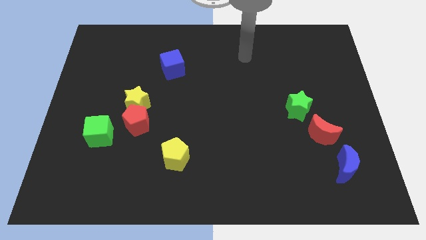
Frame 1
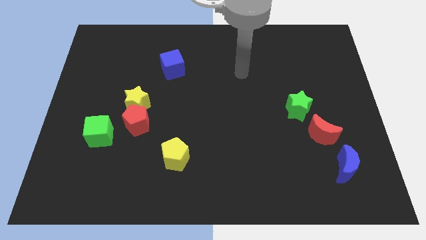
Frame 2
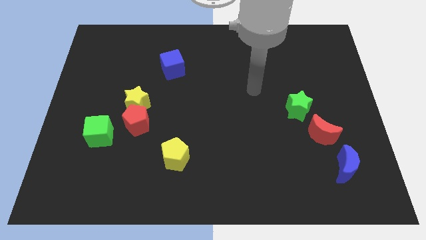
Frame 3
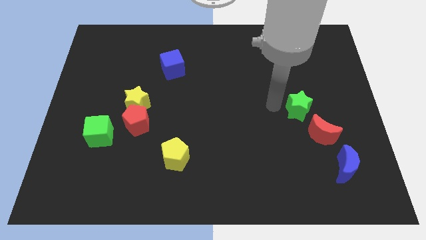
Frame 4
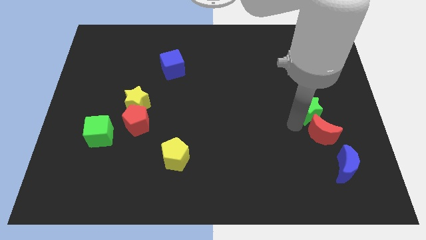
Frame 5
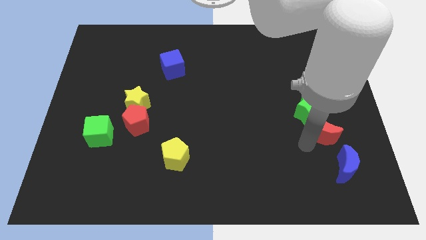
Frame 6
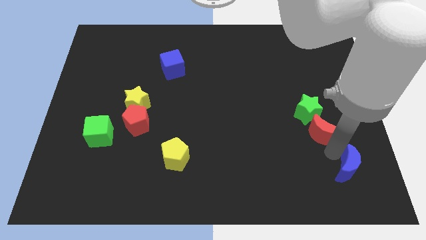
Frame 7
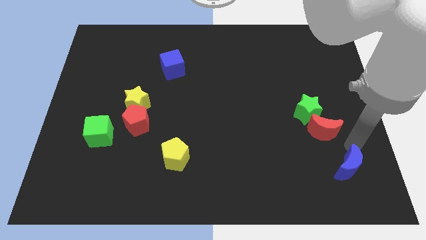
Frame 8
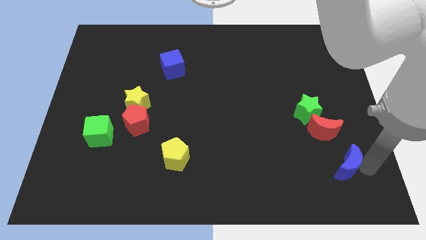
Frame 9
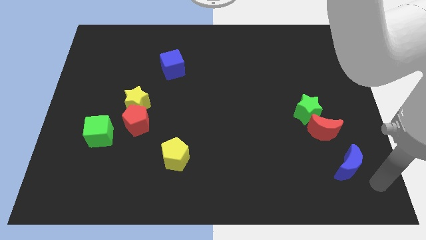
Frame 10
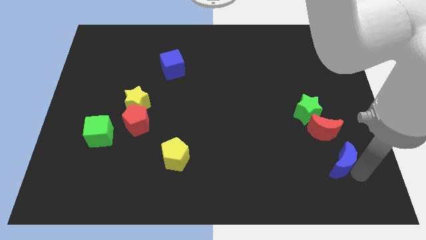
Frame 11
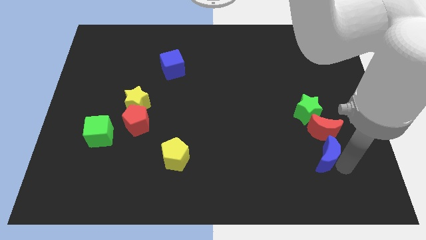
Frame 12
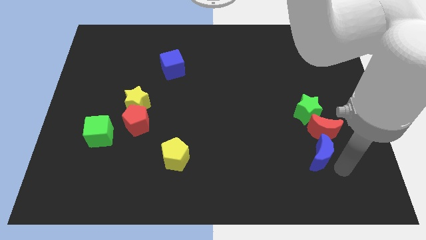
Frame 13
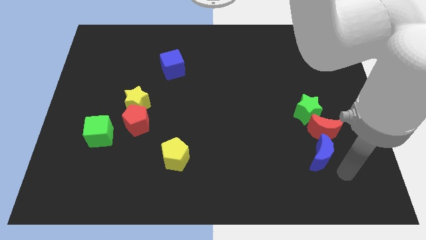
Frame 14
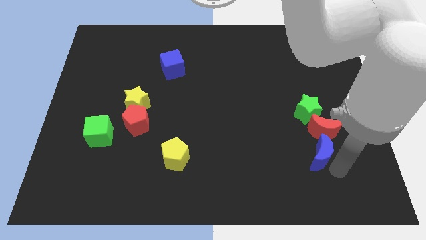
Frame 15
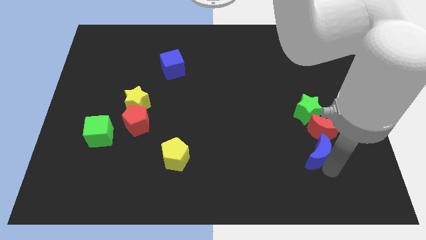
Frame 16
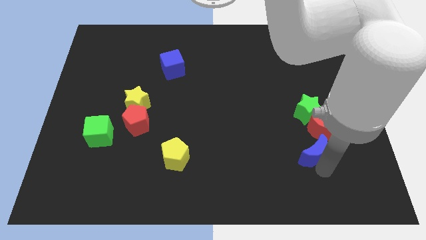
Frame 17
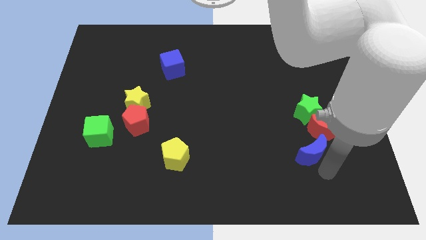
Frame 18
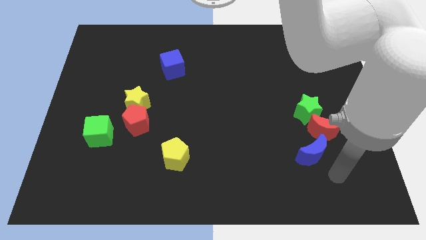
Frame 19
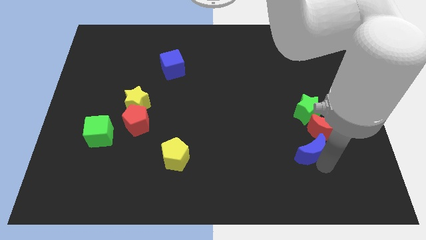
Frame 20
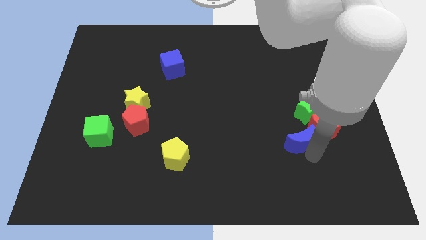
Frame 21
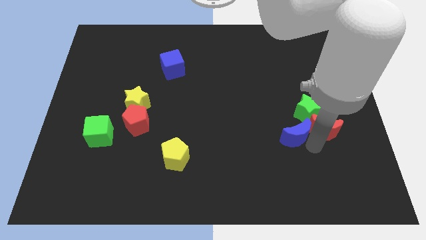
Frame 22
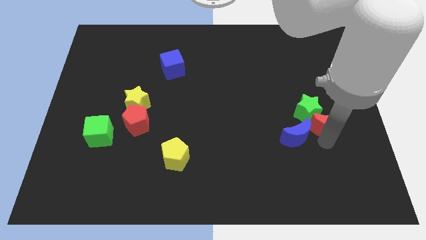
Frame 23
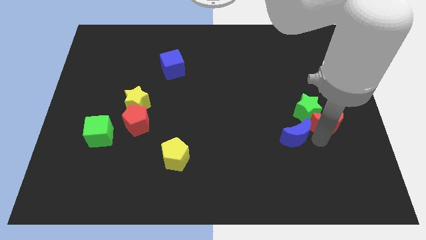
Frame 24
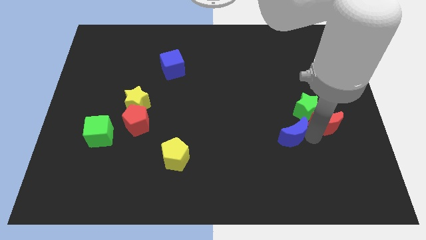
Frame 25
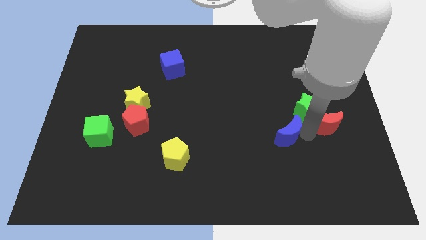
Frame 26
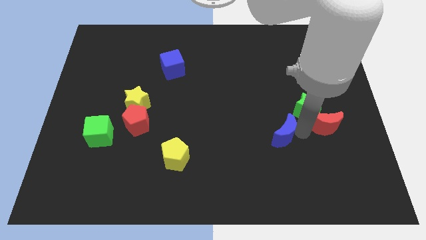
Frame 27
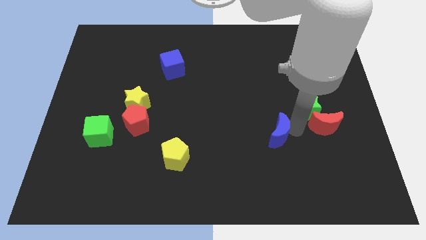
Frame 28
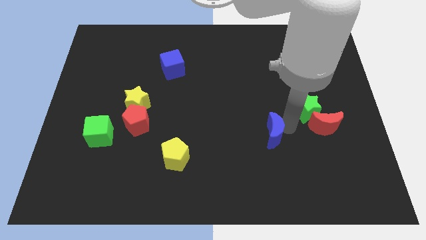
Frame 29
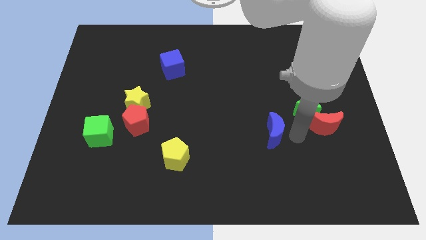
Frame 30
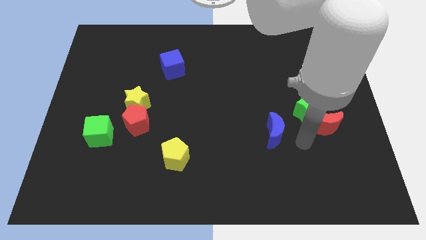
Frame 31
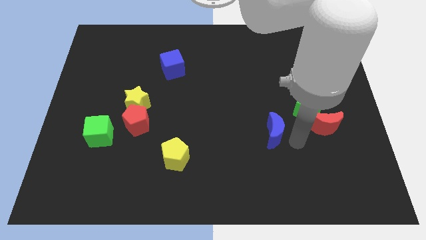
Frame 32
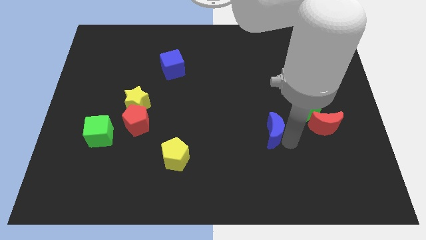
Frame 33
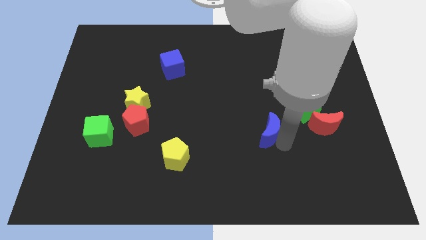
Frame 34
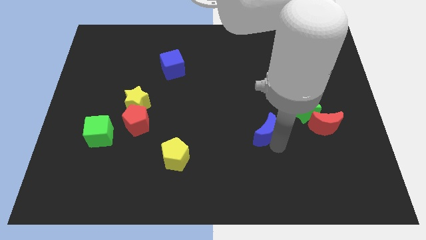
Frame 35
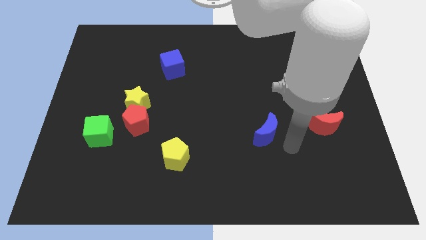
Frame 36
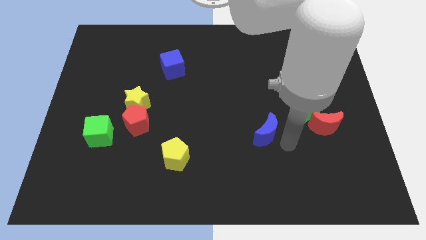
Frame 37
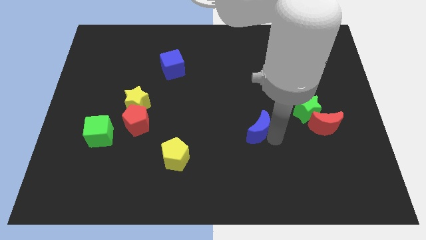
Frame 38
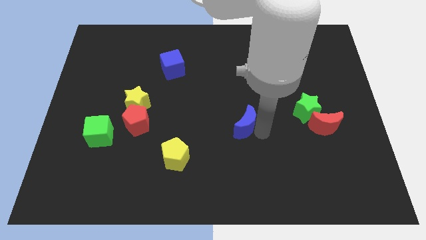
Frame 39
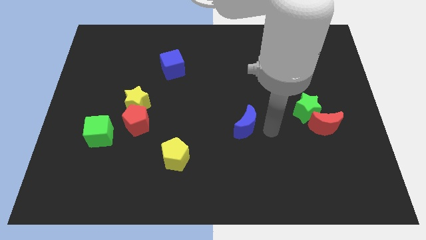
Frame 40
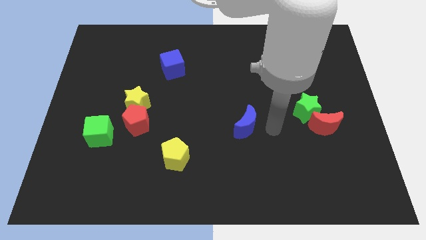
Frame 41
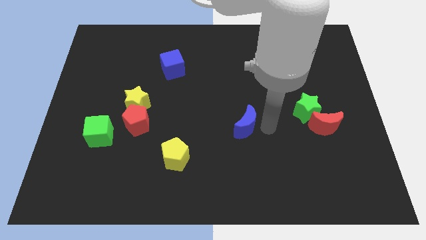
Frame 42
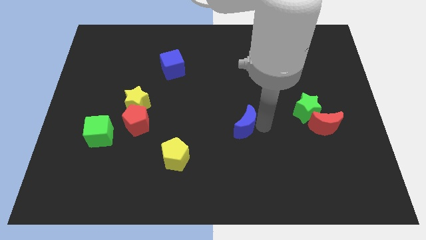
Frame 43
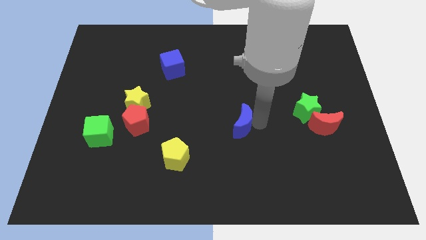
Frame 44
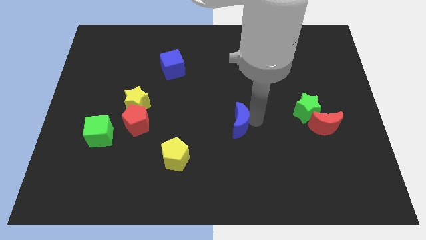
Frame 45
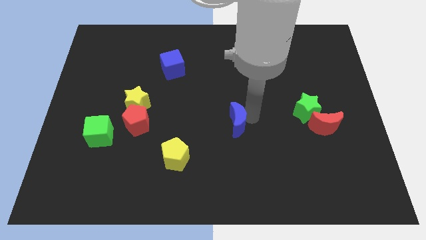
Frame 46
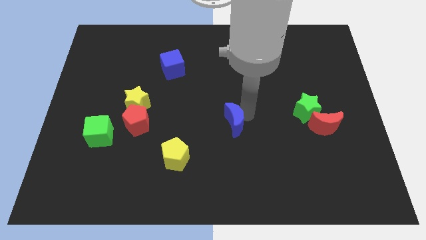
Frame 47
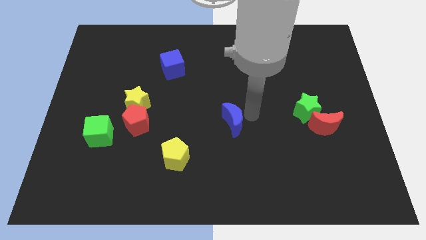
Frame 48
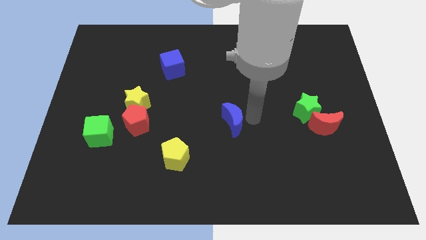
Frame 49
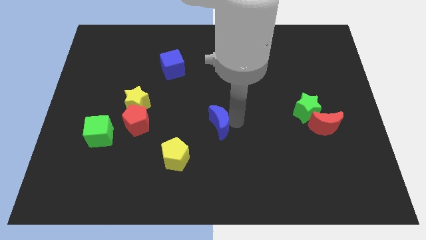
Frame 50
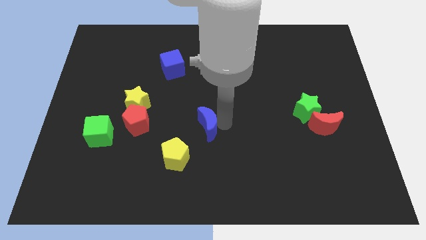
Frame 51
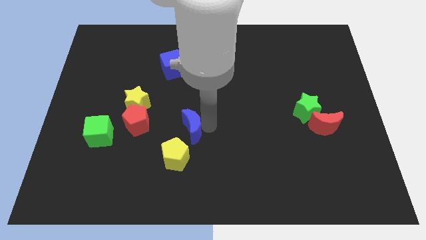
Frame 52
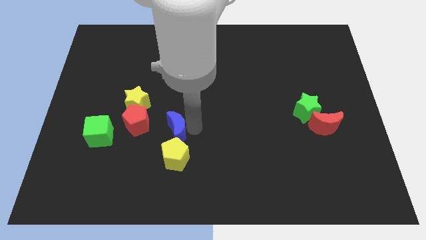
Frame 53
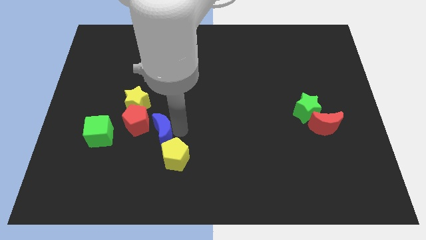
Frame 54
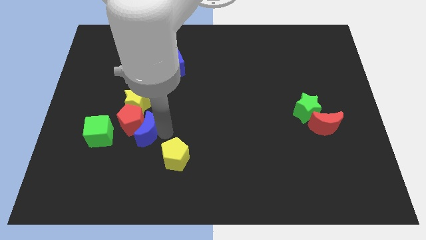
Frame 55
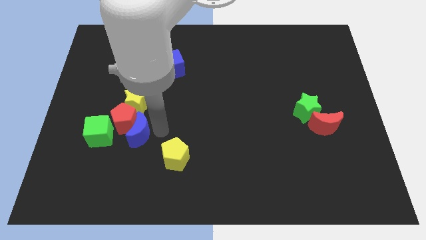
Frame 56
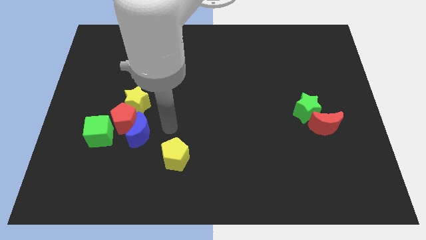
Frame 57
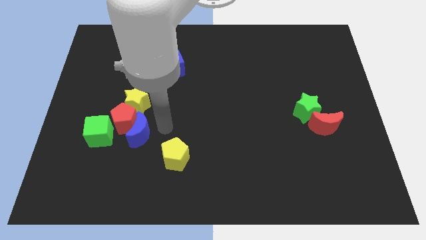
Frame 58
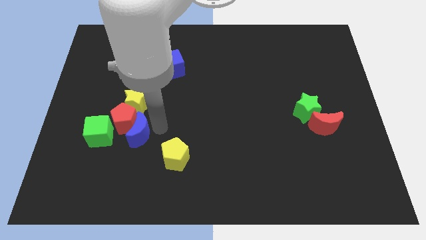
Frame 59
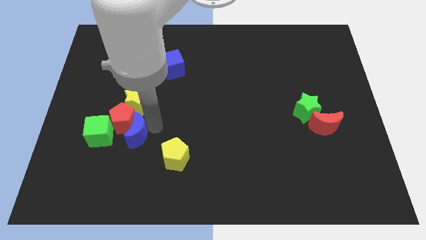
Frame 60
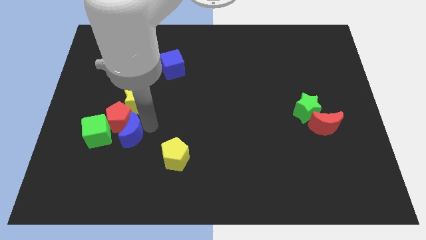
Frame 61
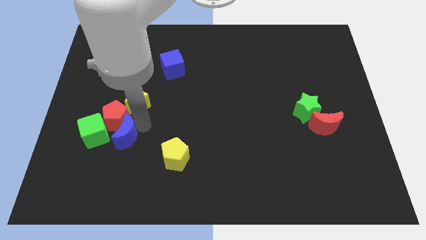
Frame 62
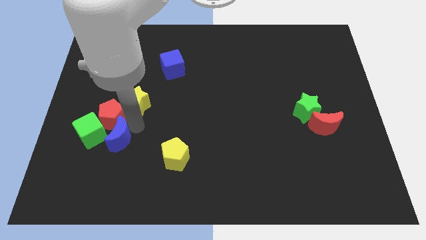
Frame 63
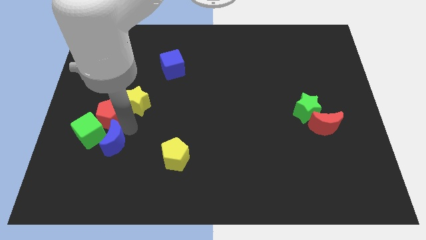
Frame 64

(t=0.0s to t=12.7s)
slide the blue moon to the green cube

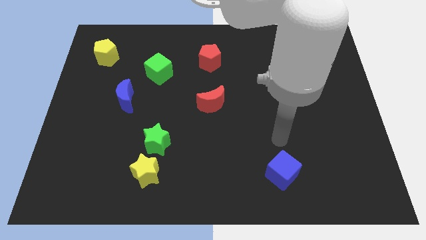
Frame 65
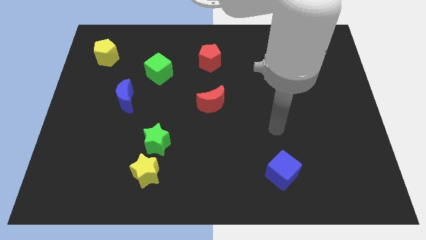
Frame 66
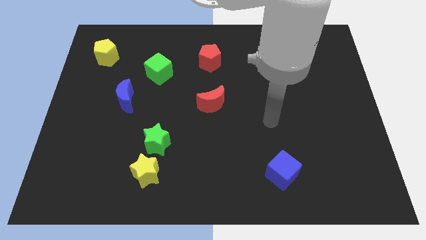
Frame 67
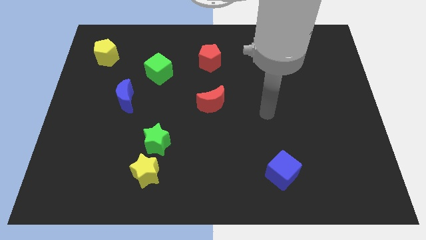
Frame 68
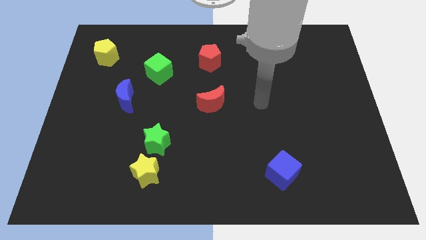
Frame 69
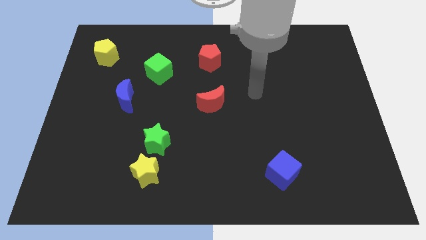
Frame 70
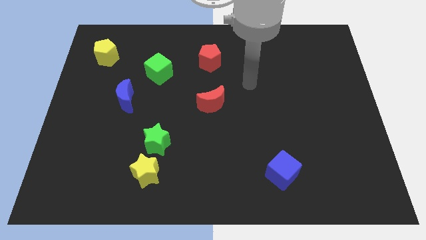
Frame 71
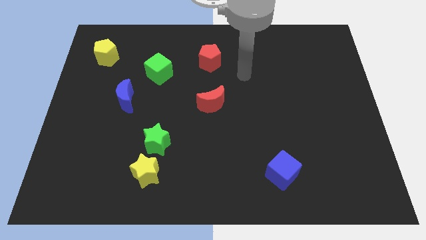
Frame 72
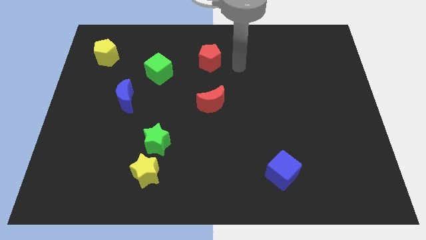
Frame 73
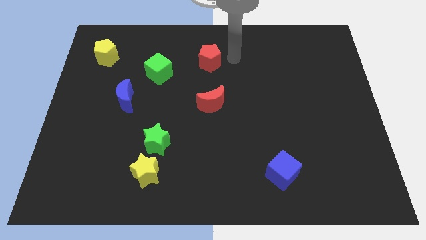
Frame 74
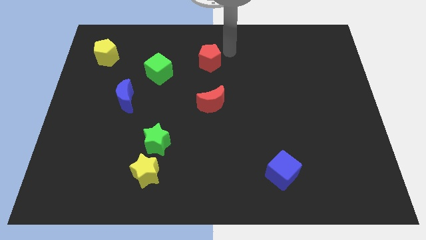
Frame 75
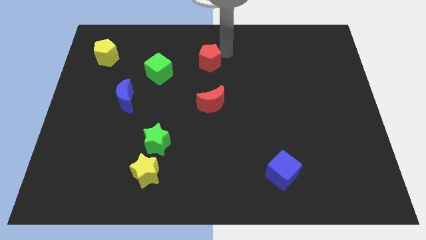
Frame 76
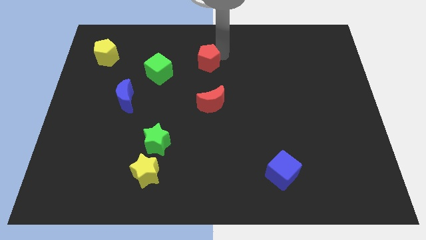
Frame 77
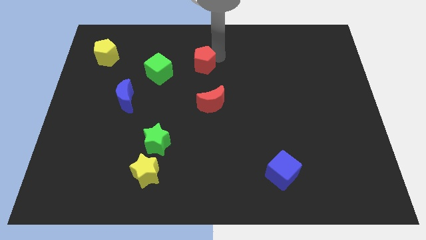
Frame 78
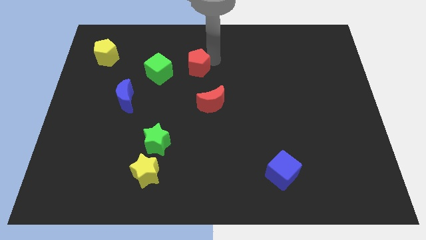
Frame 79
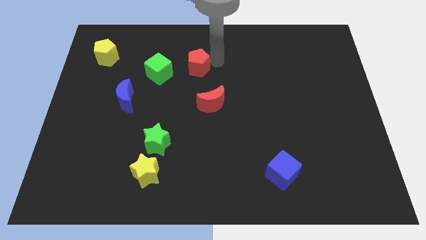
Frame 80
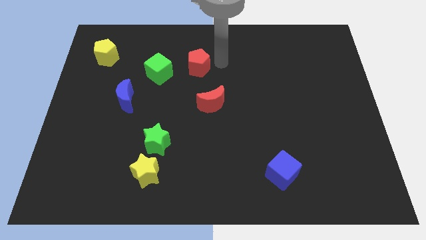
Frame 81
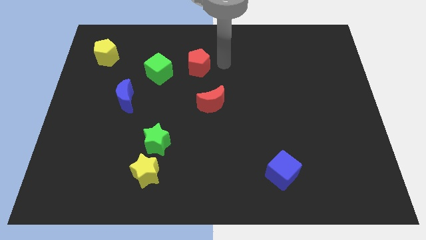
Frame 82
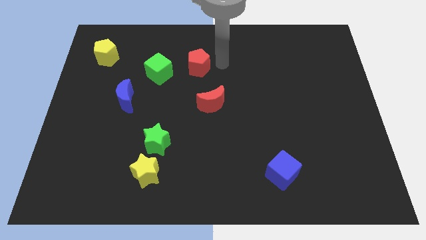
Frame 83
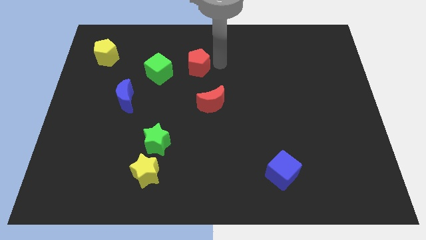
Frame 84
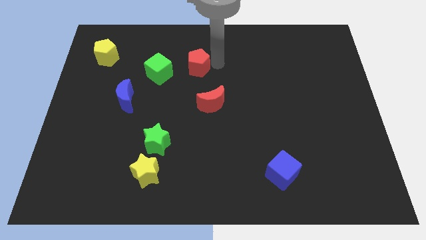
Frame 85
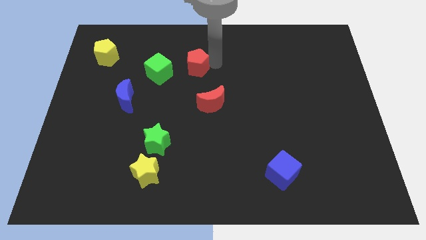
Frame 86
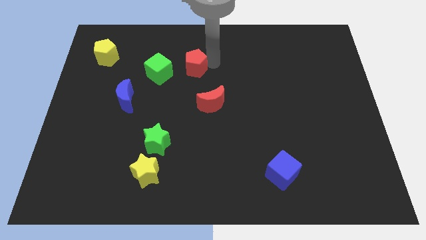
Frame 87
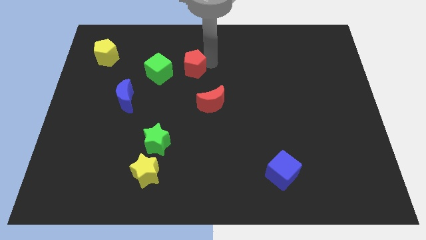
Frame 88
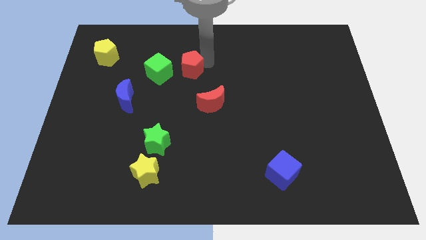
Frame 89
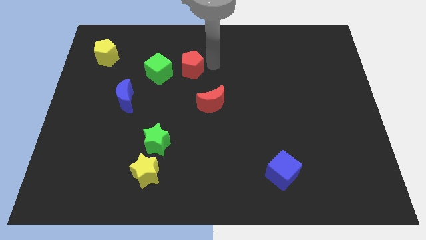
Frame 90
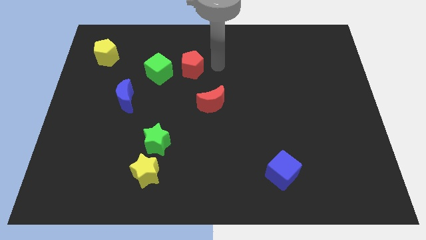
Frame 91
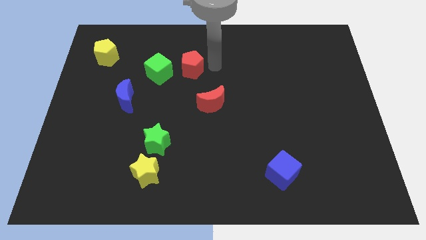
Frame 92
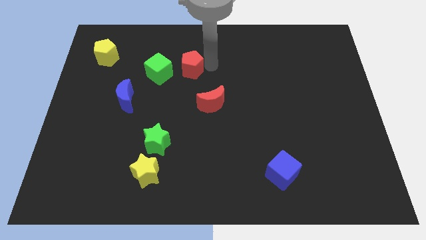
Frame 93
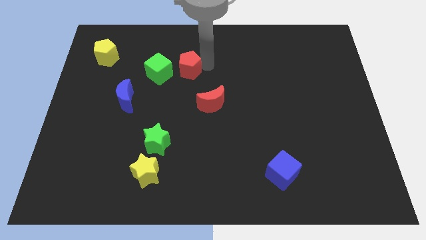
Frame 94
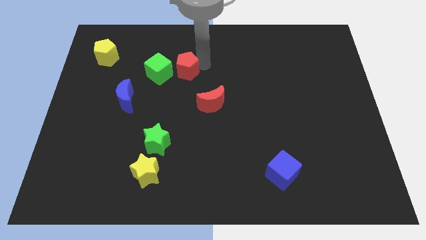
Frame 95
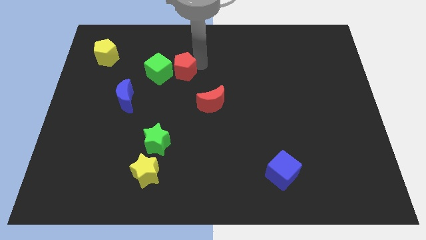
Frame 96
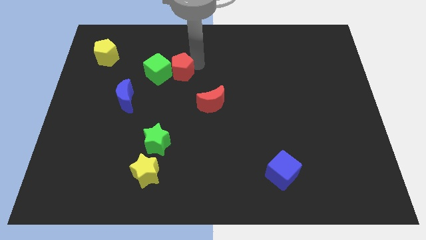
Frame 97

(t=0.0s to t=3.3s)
put the red pentagon to the green cube
